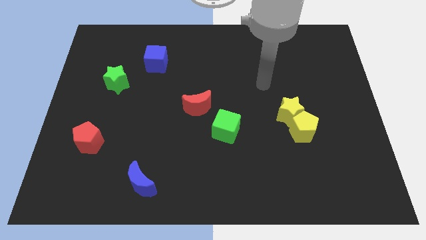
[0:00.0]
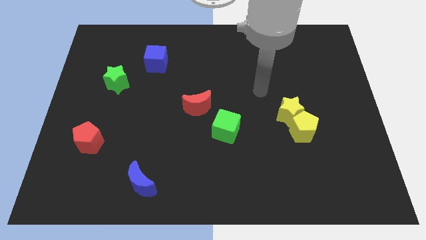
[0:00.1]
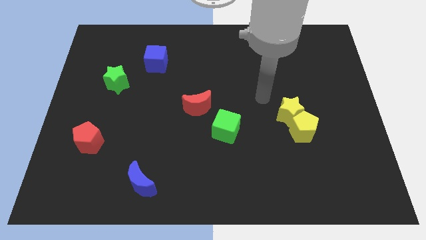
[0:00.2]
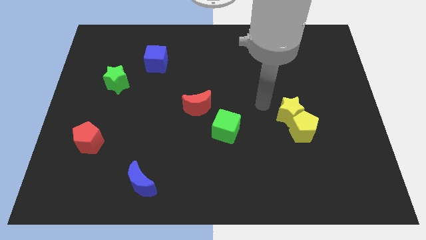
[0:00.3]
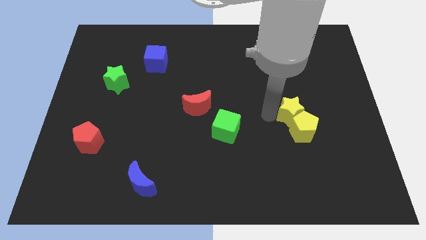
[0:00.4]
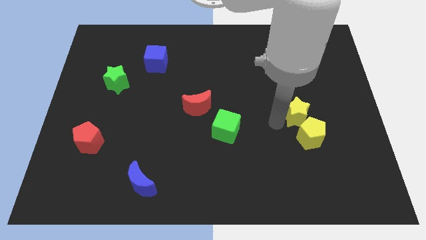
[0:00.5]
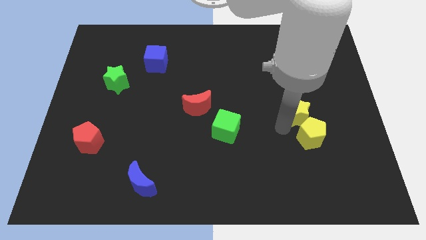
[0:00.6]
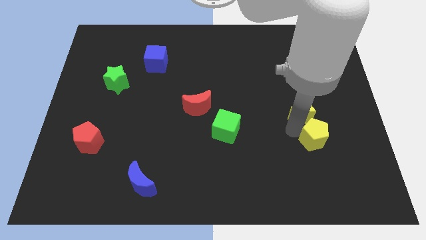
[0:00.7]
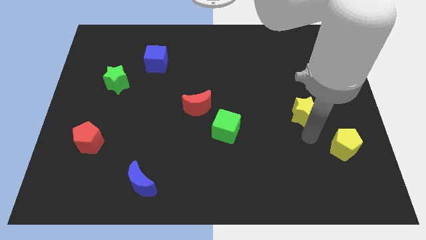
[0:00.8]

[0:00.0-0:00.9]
pull the yellow star apart from the yellow pentagon

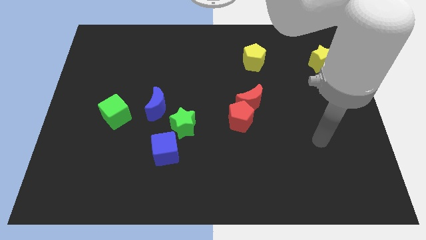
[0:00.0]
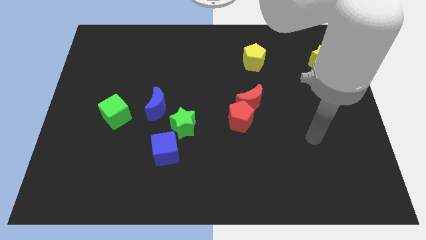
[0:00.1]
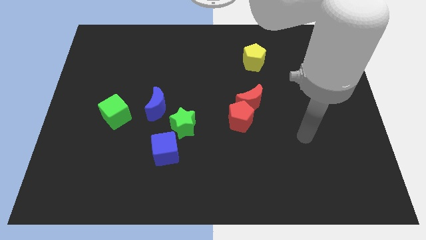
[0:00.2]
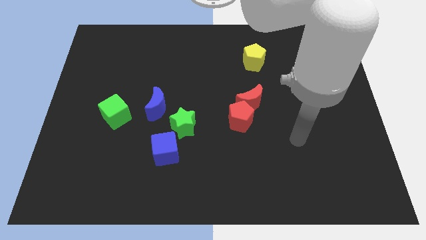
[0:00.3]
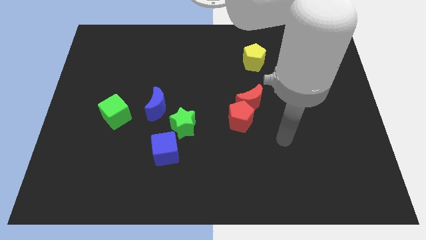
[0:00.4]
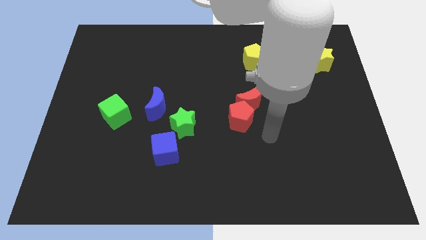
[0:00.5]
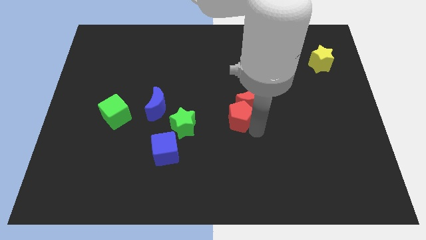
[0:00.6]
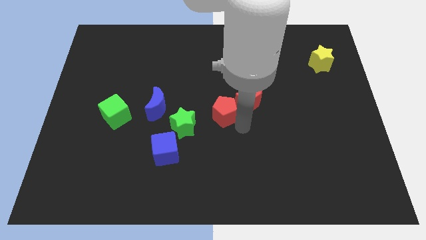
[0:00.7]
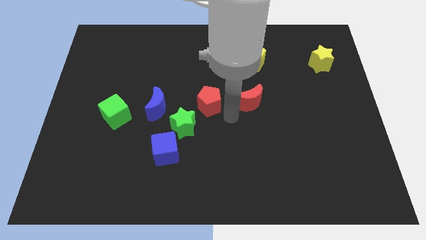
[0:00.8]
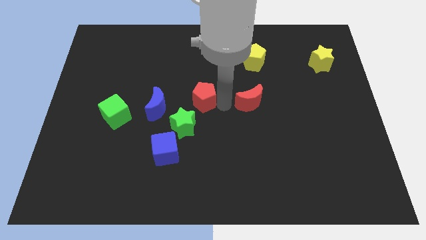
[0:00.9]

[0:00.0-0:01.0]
separate the red moon from the red pentagon

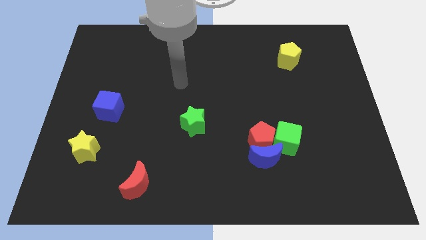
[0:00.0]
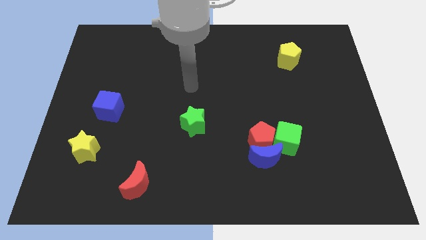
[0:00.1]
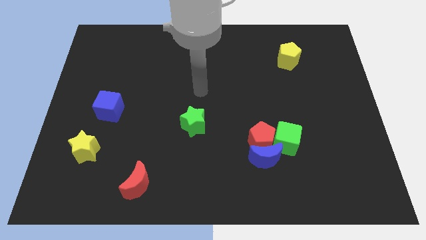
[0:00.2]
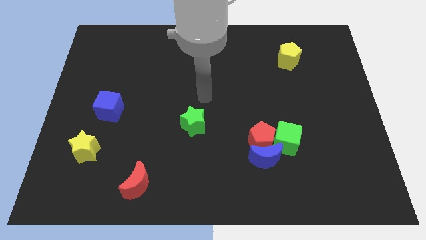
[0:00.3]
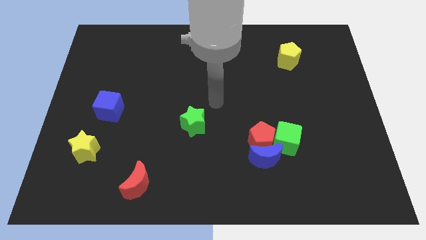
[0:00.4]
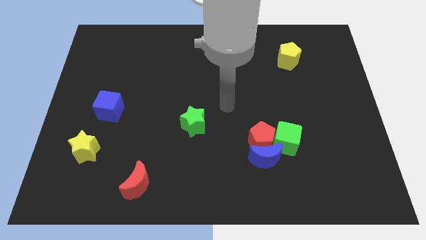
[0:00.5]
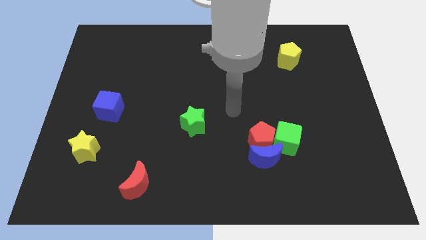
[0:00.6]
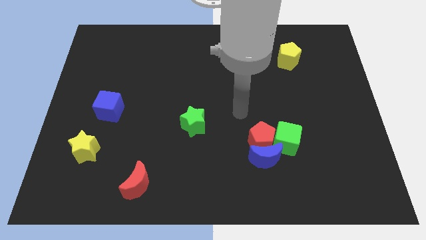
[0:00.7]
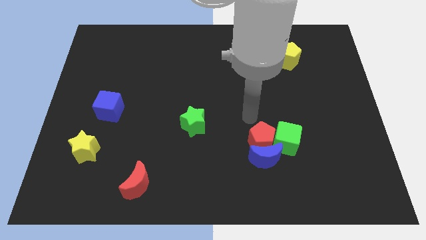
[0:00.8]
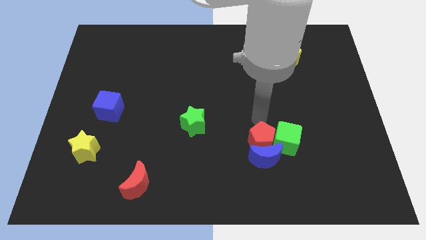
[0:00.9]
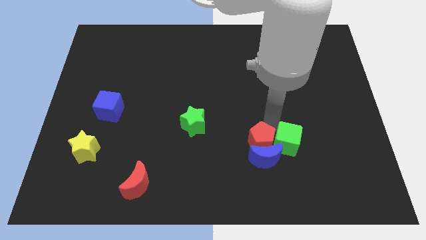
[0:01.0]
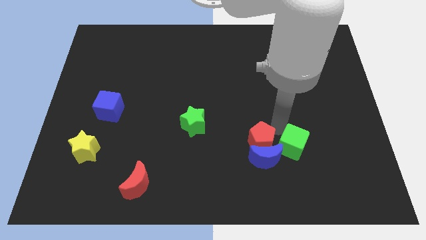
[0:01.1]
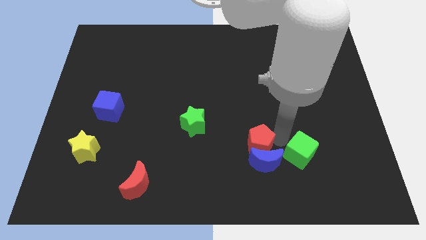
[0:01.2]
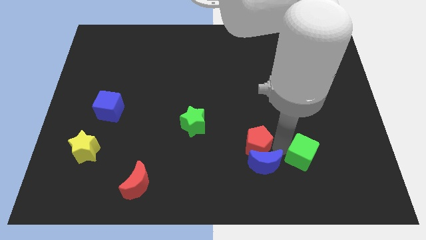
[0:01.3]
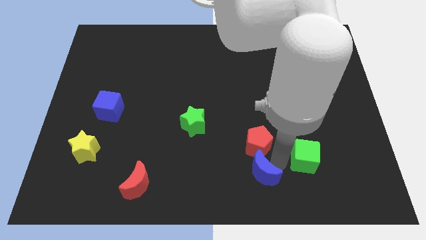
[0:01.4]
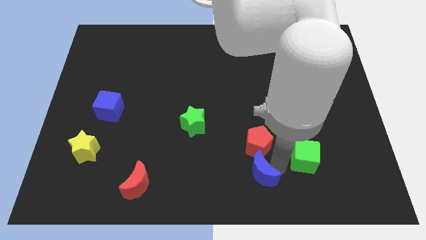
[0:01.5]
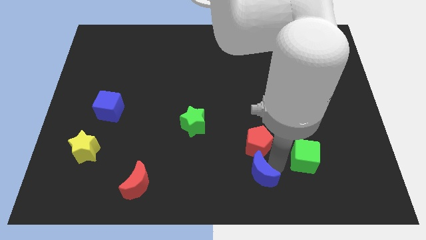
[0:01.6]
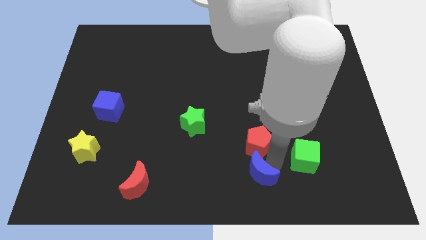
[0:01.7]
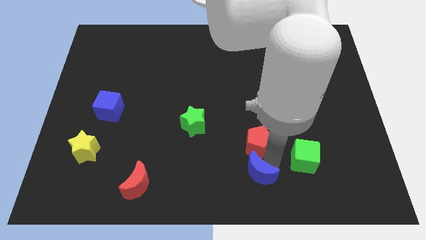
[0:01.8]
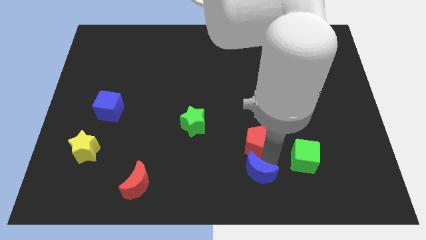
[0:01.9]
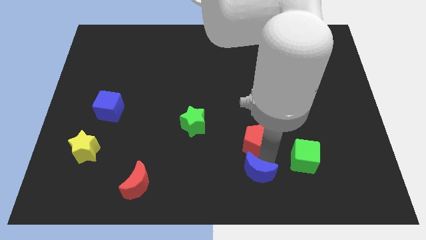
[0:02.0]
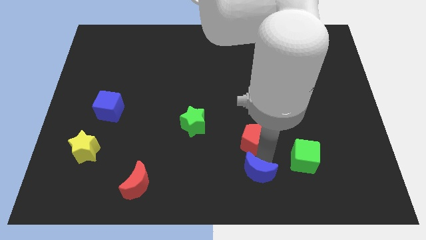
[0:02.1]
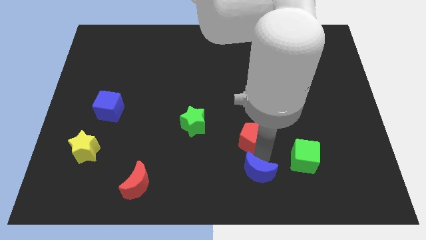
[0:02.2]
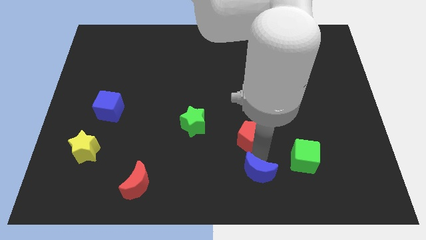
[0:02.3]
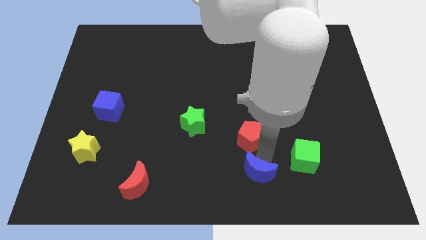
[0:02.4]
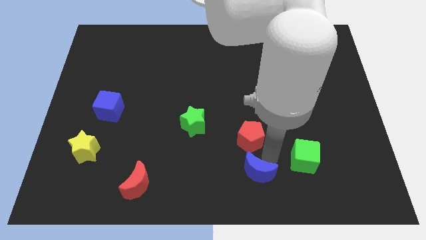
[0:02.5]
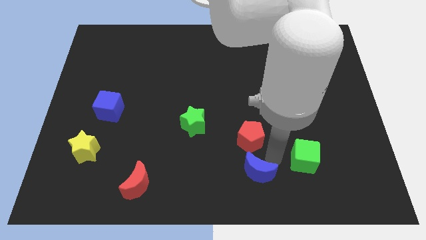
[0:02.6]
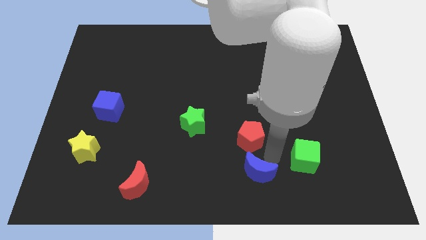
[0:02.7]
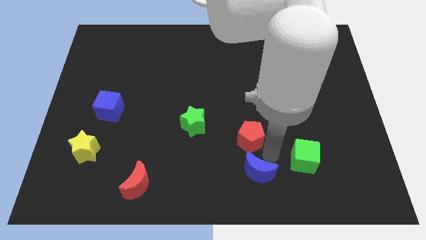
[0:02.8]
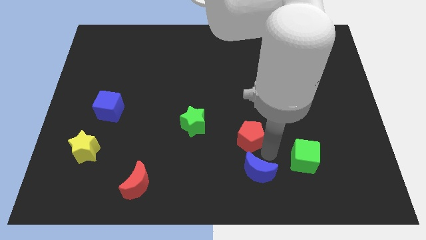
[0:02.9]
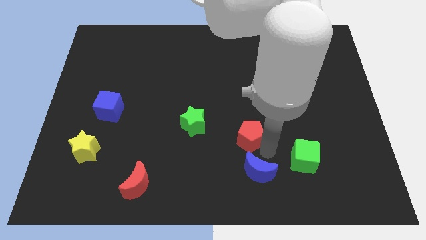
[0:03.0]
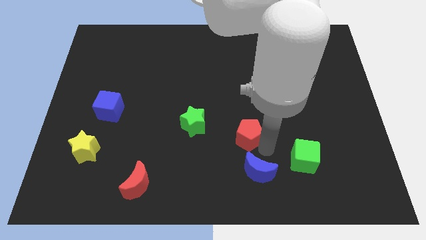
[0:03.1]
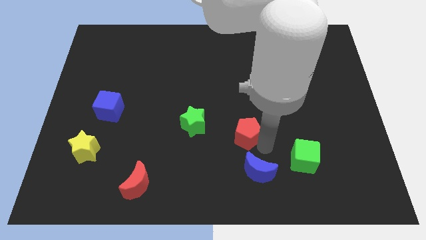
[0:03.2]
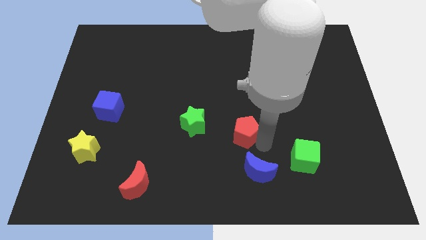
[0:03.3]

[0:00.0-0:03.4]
separate the red pentagon from the blue moon and green cube

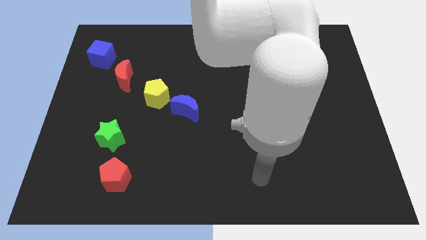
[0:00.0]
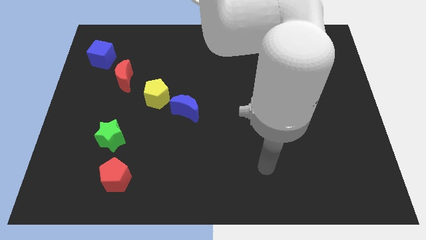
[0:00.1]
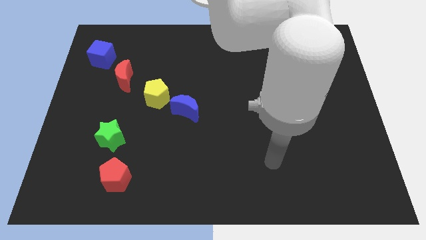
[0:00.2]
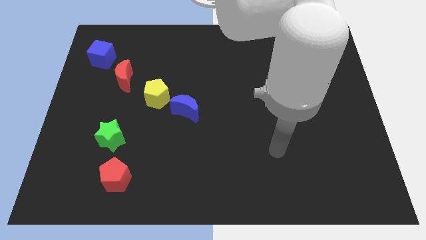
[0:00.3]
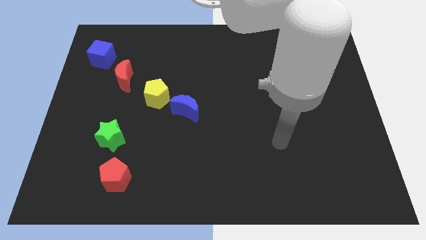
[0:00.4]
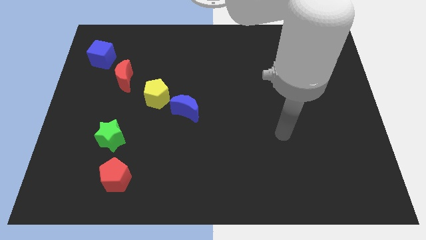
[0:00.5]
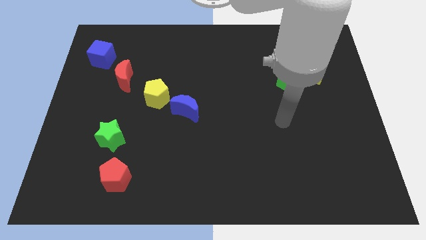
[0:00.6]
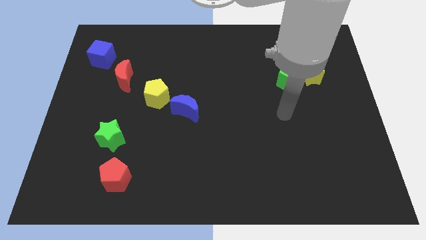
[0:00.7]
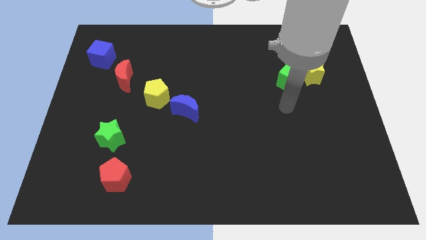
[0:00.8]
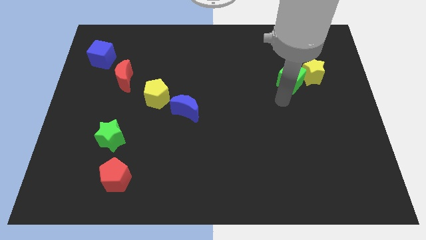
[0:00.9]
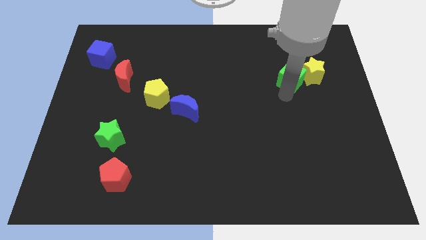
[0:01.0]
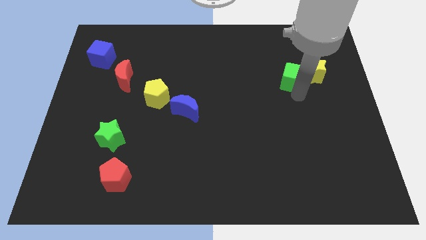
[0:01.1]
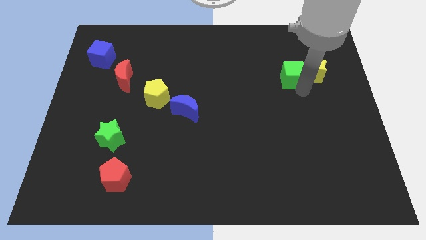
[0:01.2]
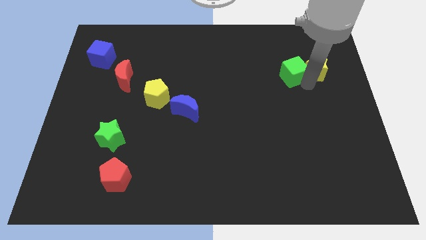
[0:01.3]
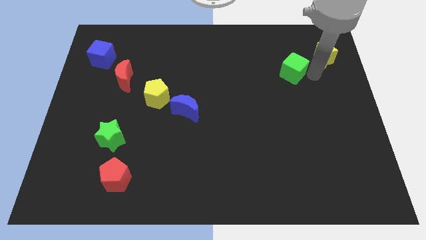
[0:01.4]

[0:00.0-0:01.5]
move the green cube away from the yellow star

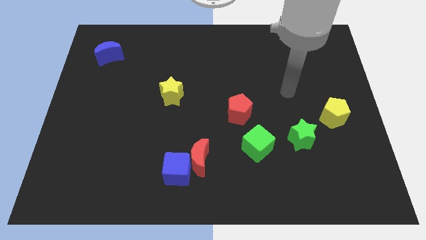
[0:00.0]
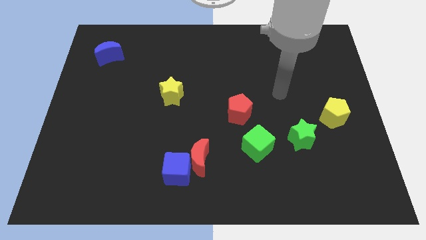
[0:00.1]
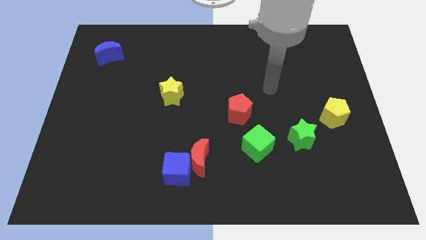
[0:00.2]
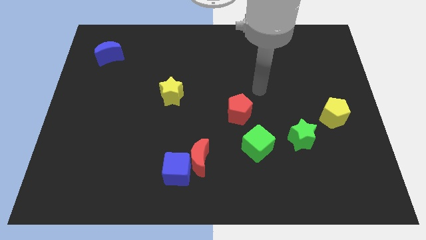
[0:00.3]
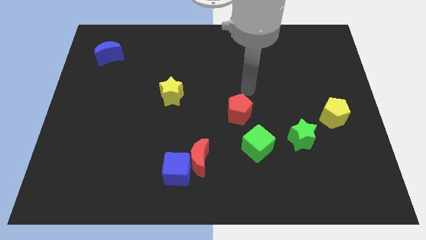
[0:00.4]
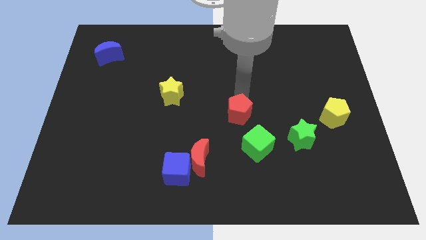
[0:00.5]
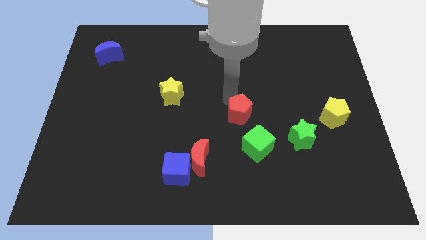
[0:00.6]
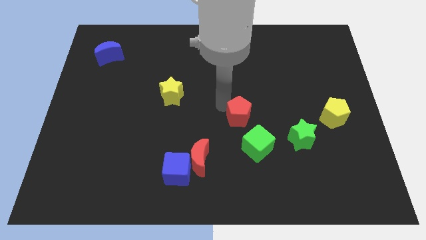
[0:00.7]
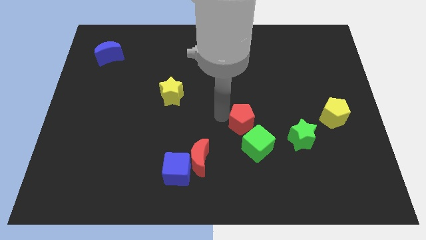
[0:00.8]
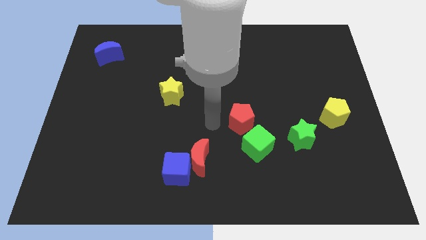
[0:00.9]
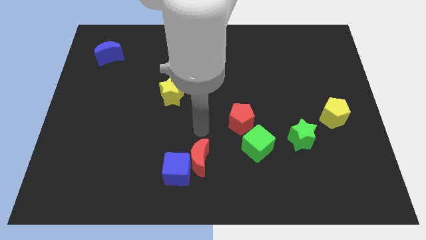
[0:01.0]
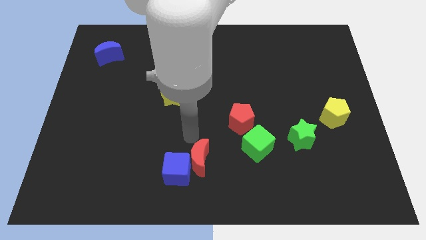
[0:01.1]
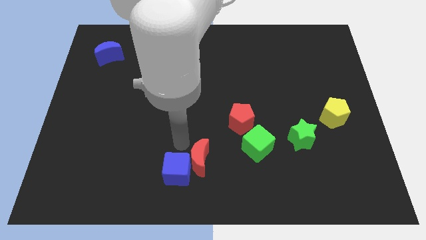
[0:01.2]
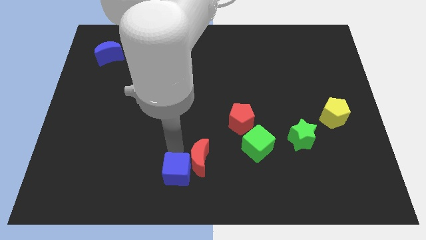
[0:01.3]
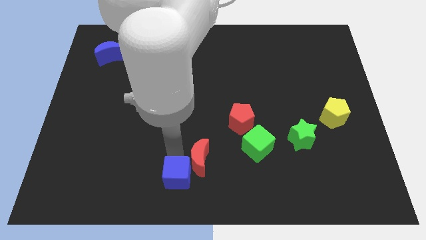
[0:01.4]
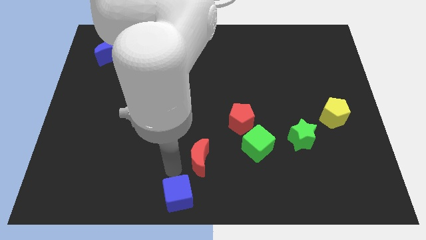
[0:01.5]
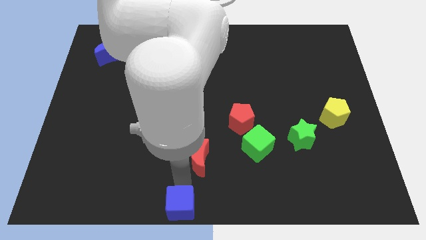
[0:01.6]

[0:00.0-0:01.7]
move the red moon away from the blue cube

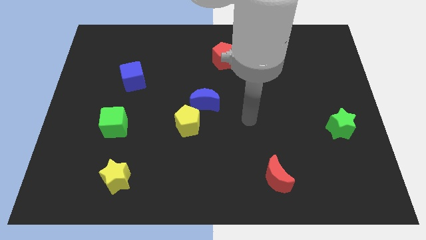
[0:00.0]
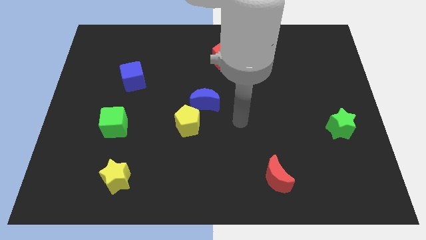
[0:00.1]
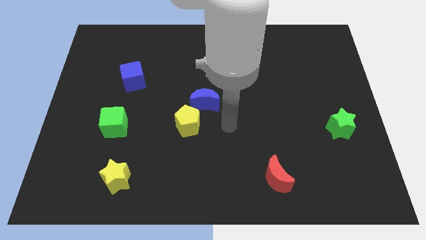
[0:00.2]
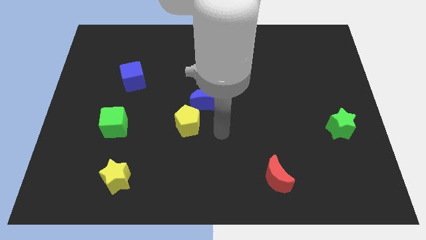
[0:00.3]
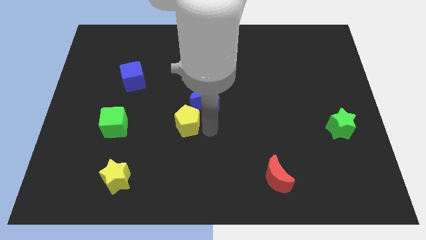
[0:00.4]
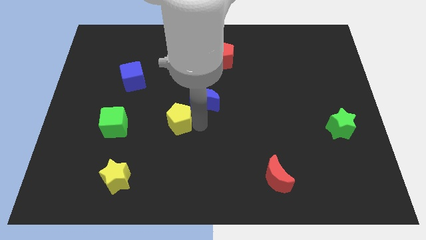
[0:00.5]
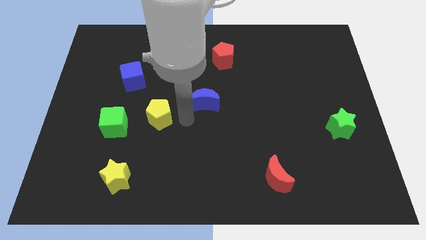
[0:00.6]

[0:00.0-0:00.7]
separate the blue moon from the yellow pentagon
